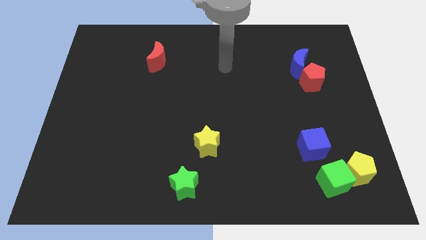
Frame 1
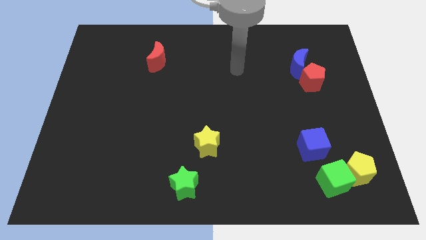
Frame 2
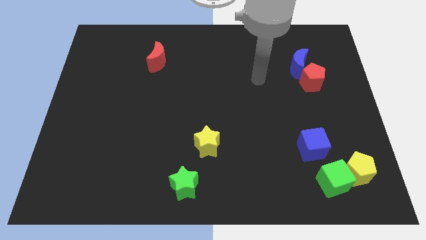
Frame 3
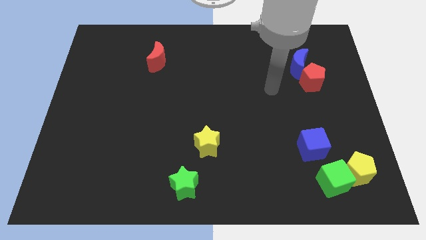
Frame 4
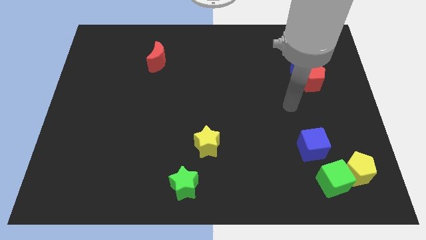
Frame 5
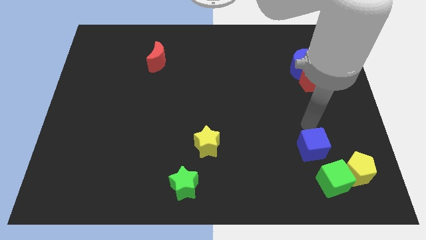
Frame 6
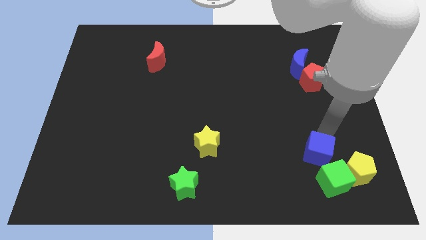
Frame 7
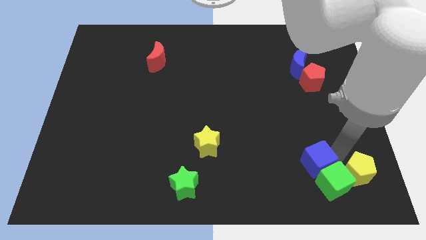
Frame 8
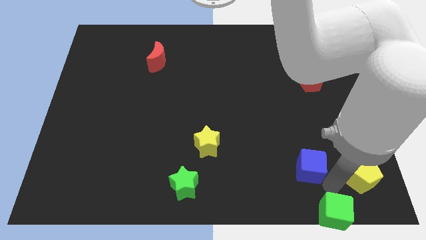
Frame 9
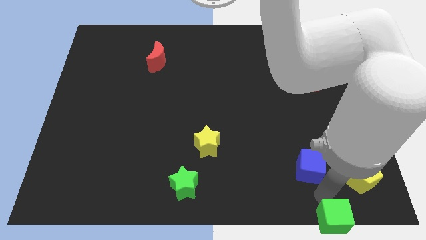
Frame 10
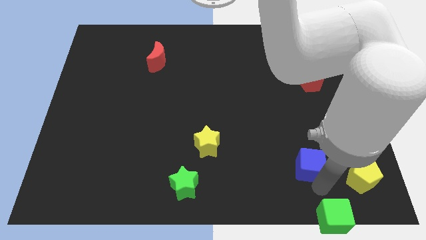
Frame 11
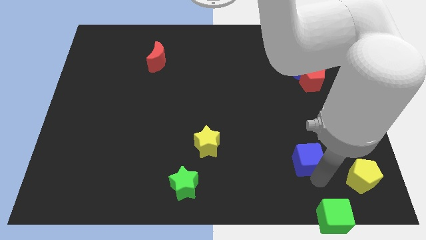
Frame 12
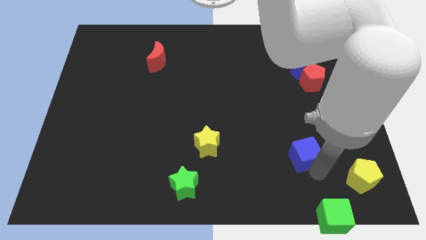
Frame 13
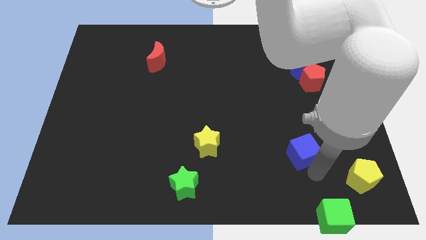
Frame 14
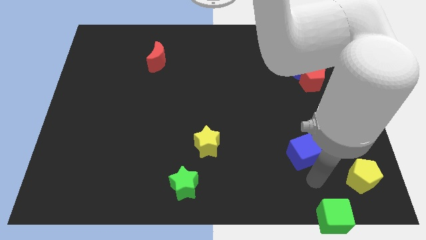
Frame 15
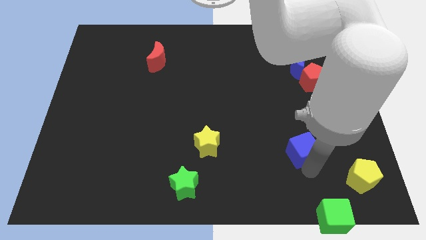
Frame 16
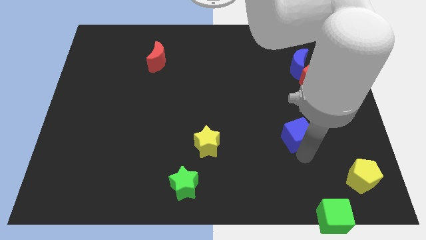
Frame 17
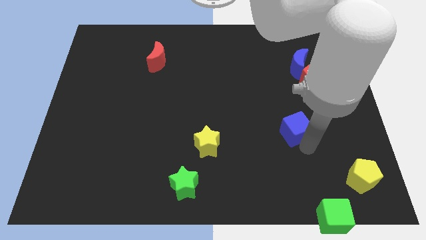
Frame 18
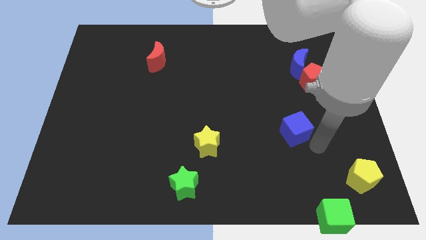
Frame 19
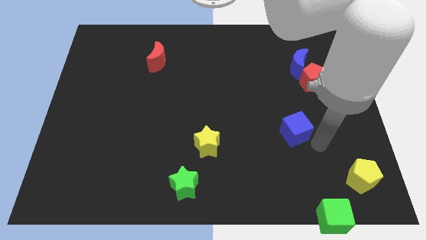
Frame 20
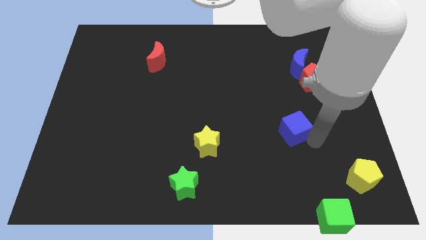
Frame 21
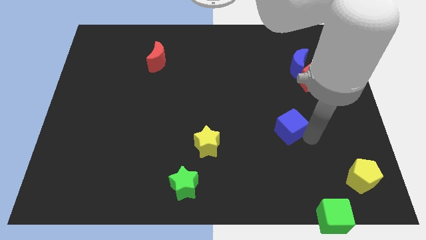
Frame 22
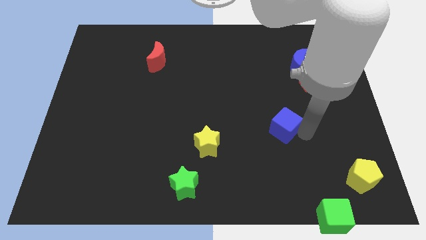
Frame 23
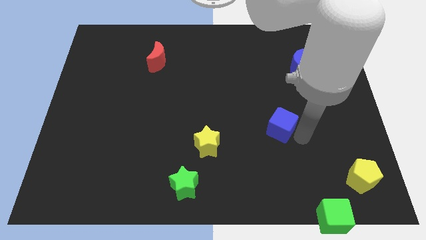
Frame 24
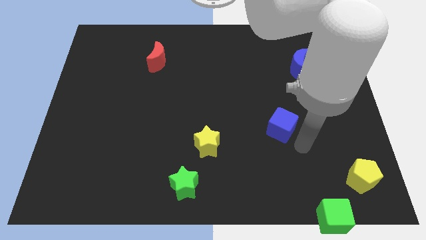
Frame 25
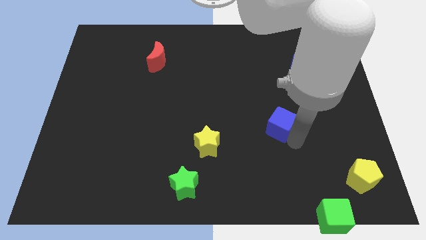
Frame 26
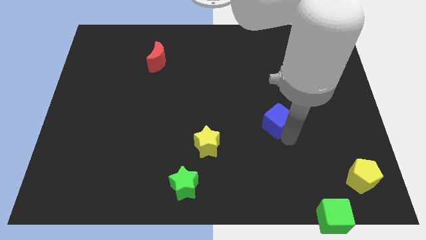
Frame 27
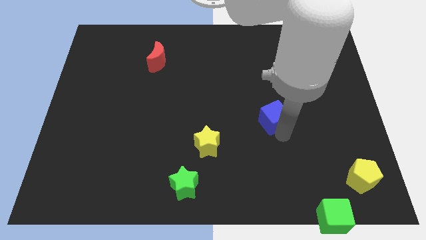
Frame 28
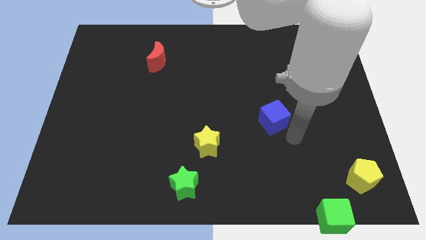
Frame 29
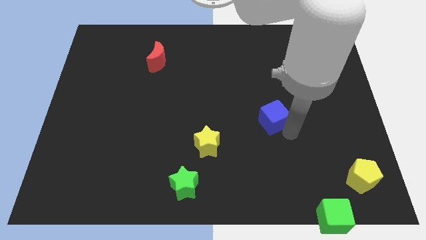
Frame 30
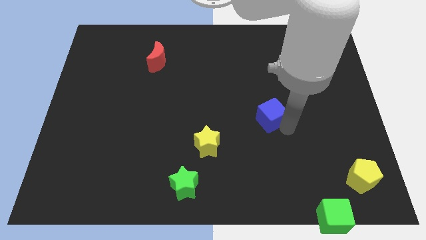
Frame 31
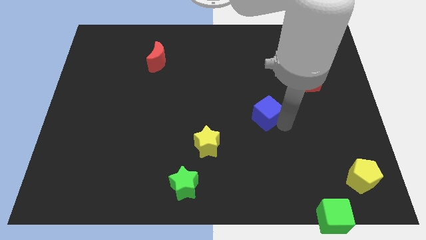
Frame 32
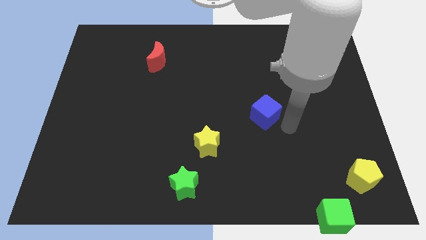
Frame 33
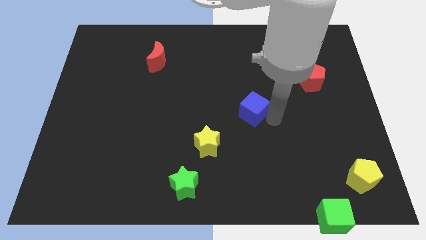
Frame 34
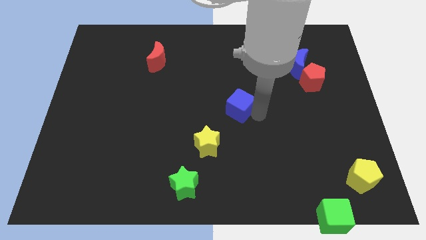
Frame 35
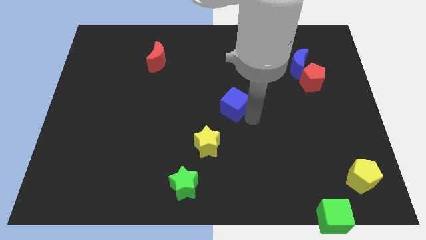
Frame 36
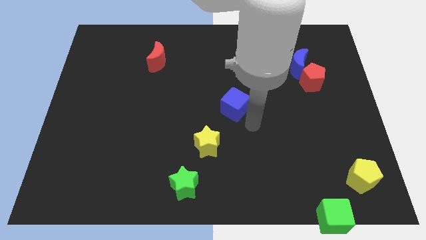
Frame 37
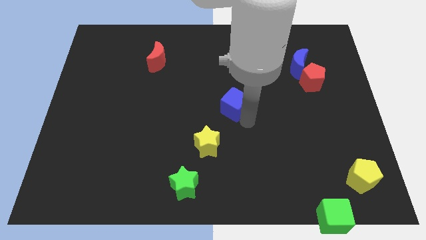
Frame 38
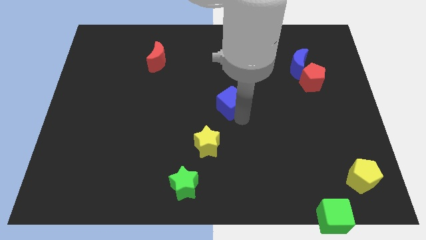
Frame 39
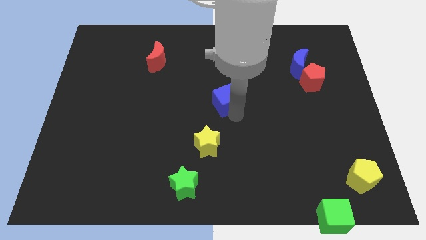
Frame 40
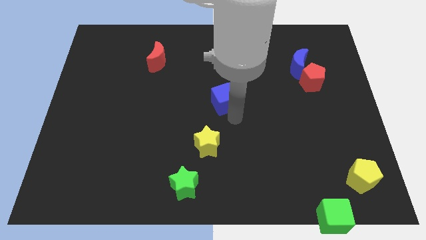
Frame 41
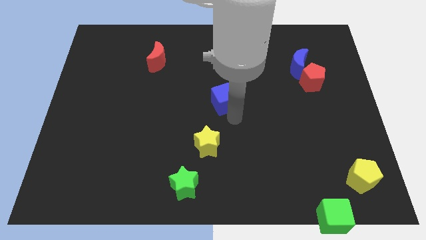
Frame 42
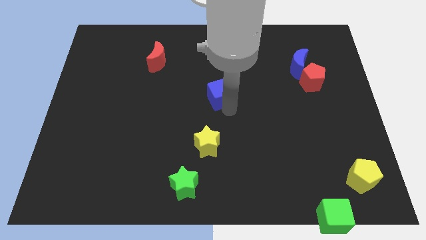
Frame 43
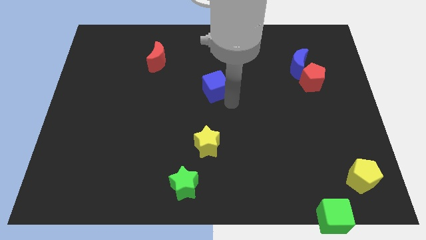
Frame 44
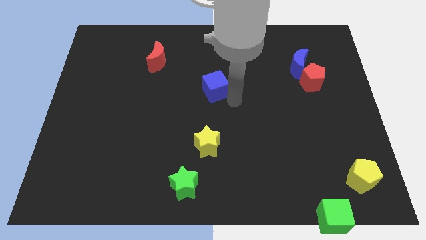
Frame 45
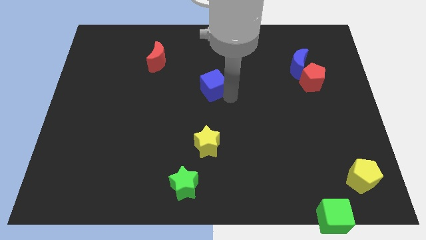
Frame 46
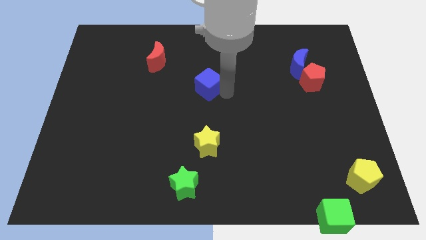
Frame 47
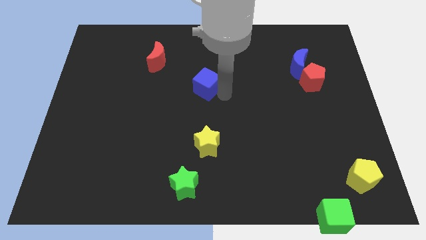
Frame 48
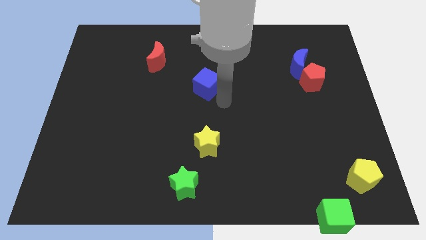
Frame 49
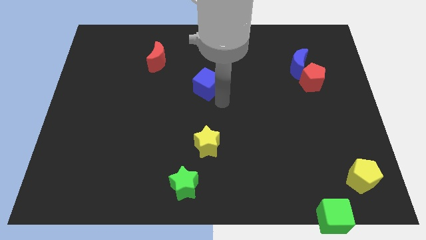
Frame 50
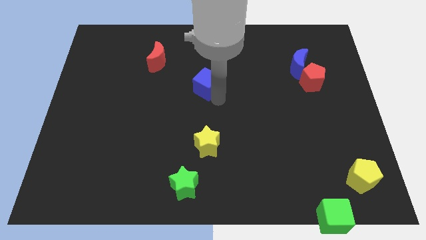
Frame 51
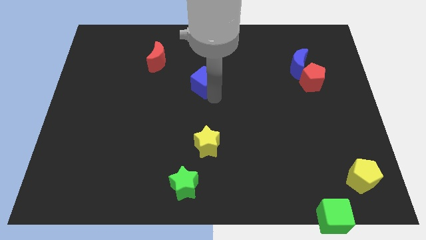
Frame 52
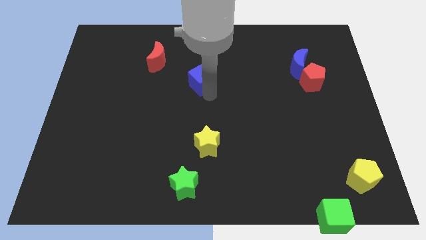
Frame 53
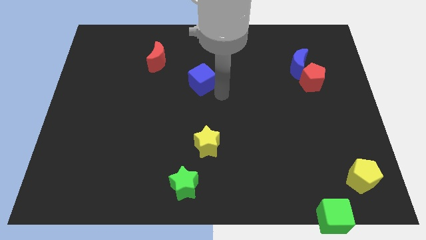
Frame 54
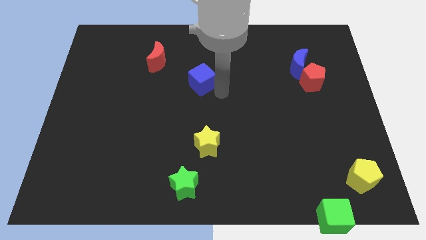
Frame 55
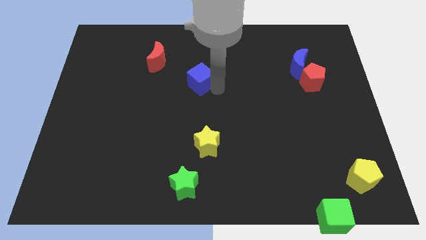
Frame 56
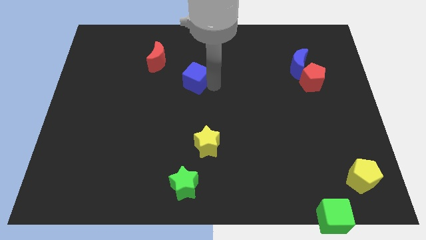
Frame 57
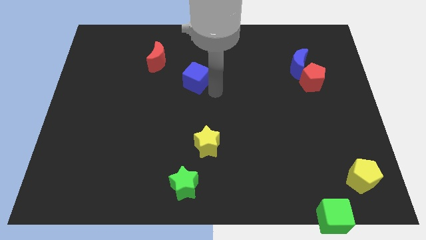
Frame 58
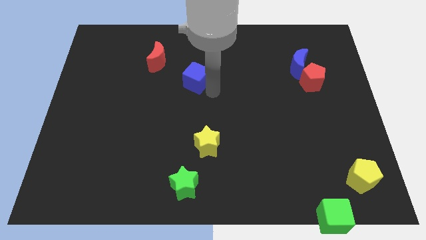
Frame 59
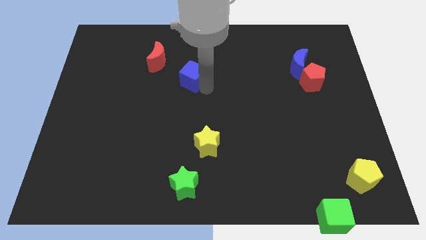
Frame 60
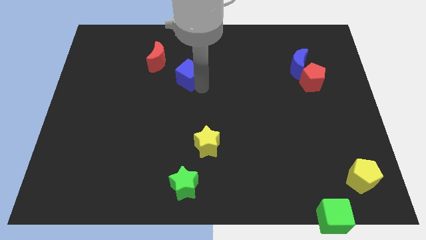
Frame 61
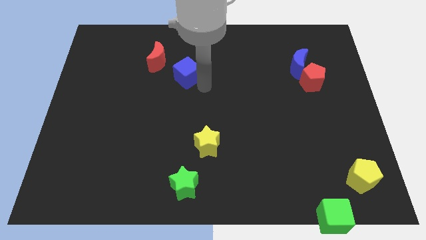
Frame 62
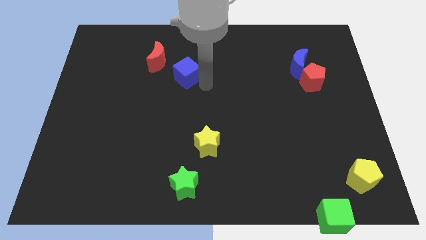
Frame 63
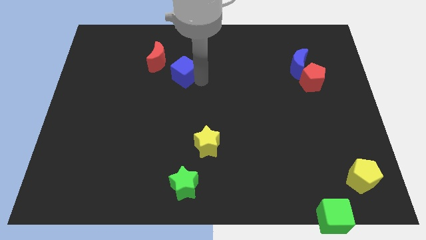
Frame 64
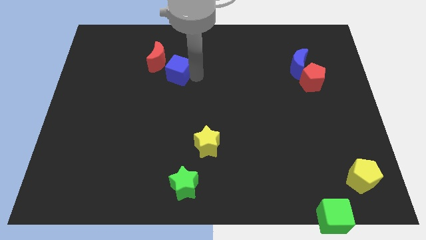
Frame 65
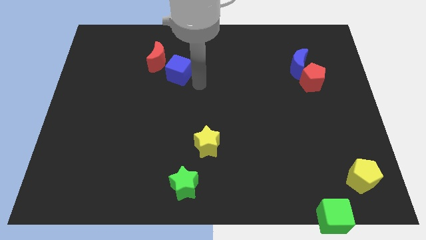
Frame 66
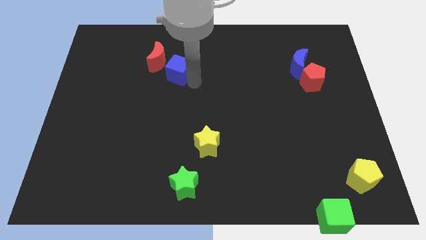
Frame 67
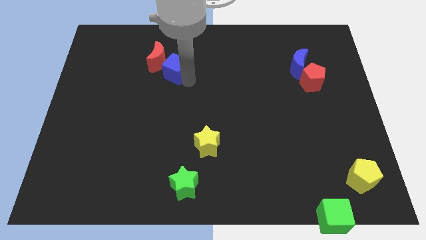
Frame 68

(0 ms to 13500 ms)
slide the blue cube towards the red moon

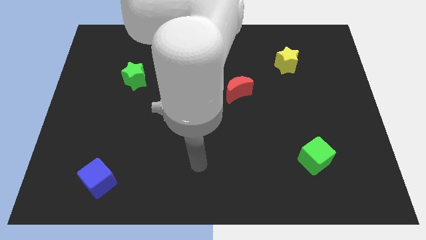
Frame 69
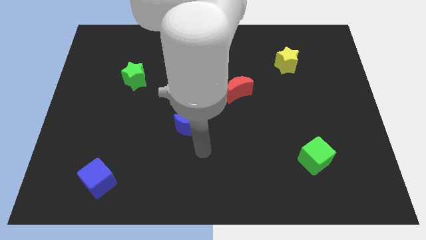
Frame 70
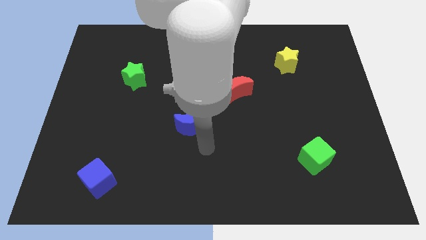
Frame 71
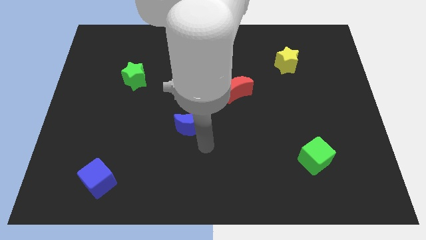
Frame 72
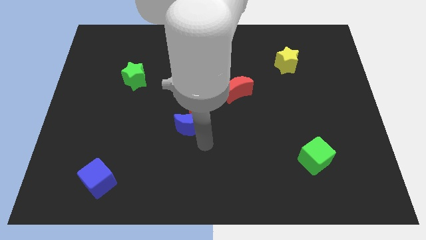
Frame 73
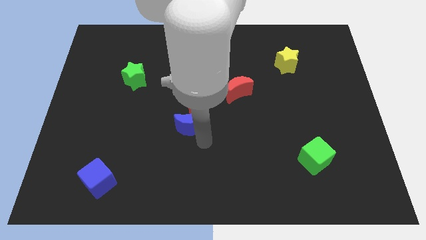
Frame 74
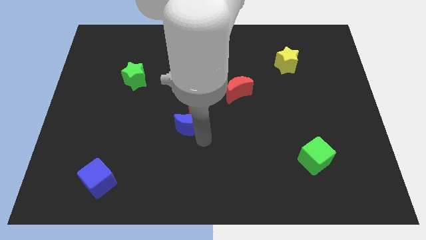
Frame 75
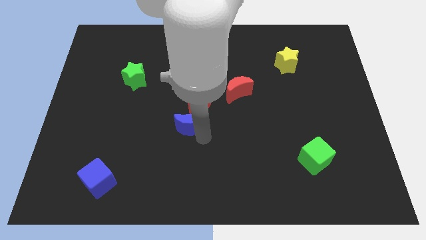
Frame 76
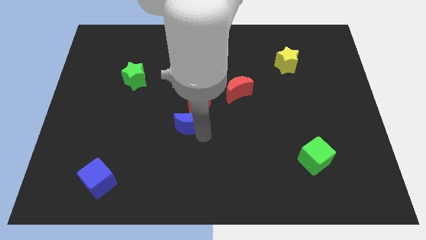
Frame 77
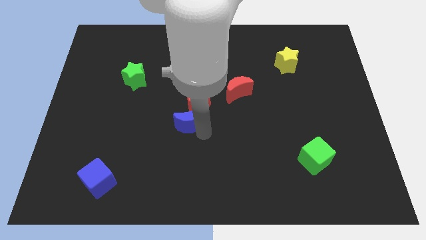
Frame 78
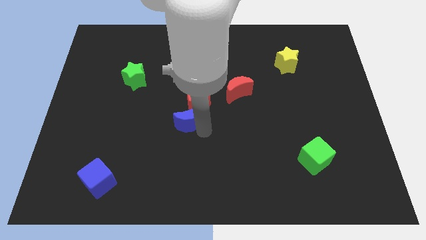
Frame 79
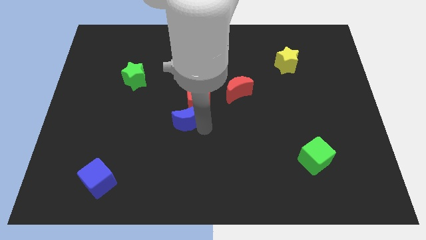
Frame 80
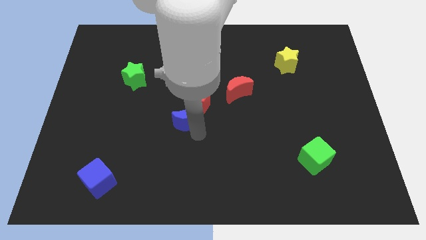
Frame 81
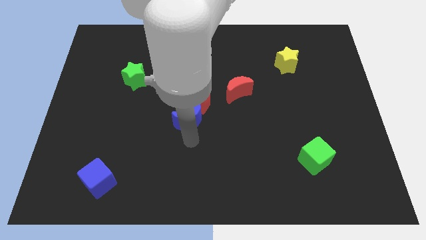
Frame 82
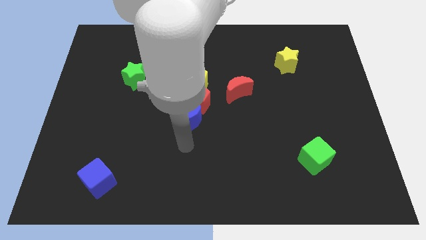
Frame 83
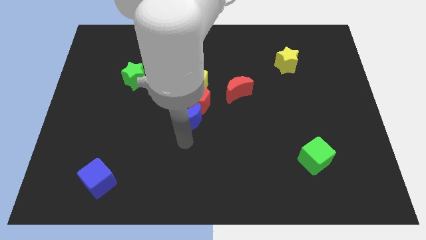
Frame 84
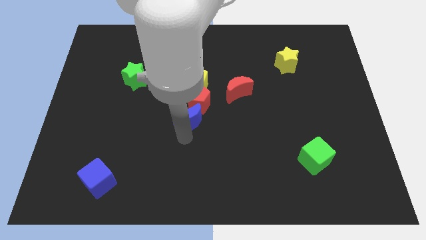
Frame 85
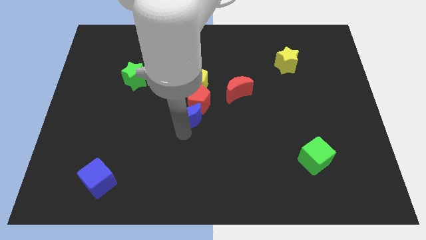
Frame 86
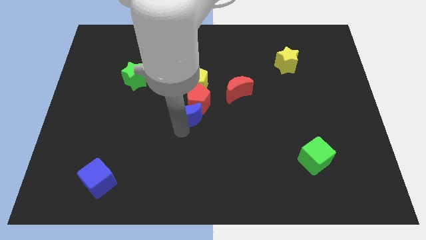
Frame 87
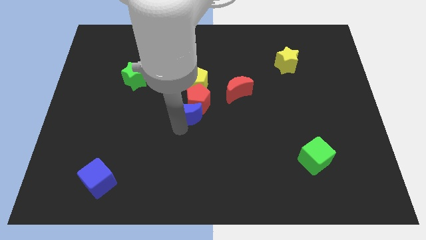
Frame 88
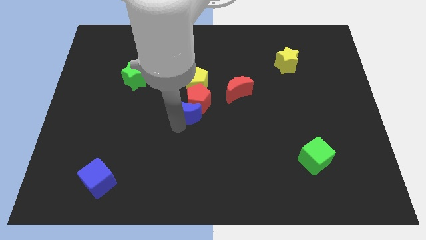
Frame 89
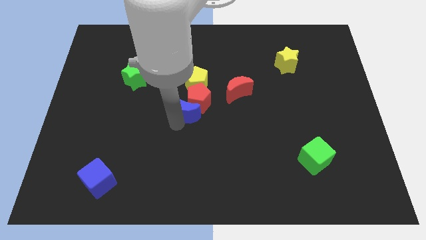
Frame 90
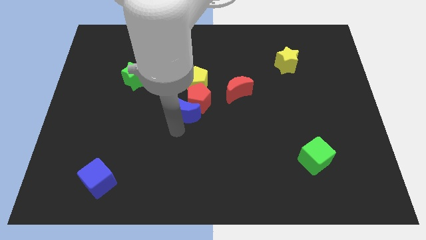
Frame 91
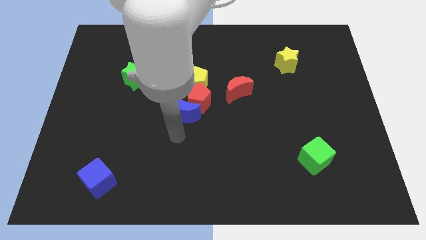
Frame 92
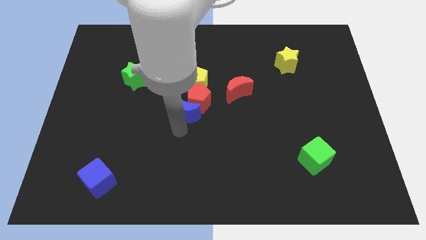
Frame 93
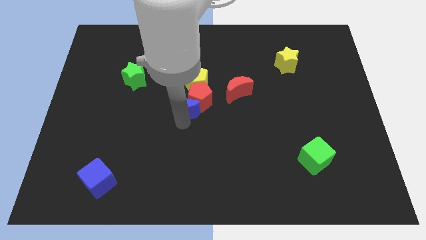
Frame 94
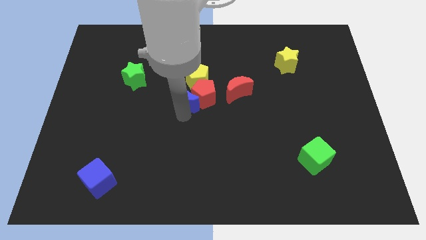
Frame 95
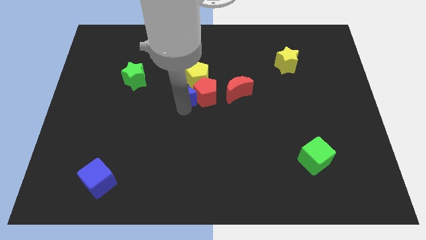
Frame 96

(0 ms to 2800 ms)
put the blue moon to the yellow pentagon
